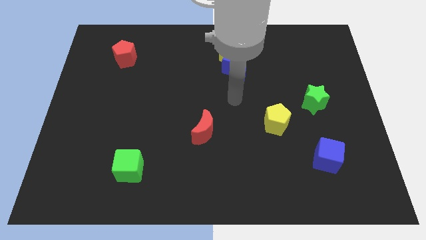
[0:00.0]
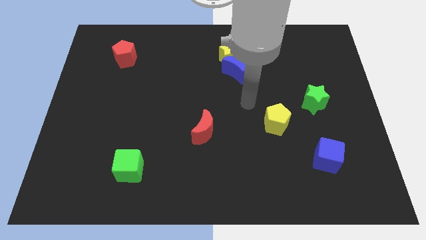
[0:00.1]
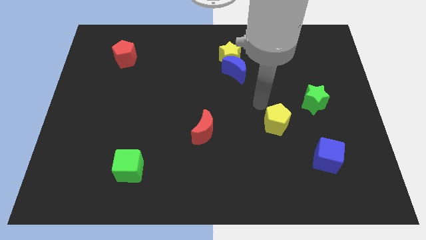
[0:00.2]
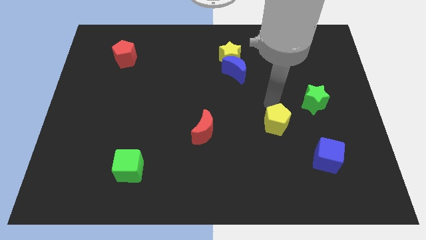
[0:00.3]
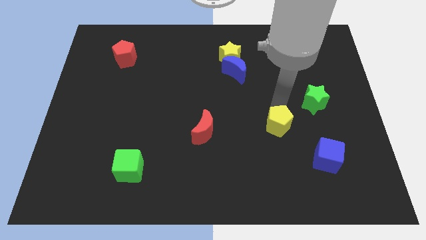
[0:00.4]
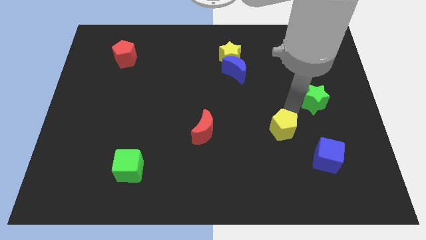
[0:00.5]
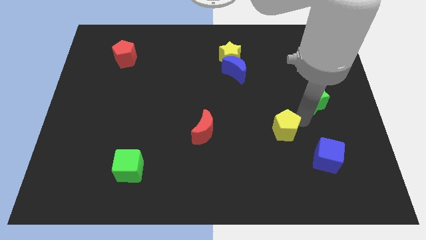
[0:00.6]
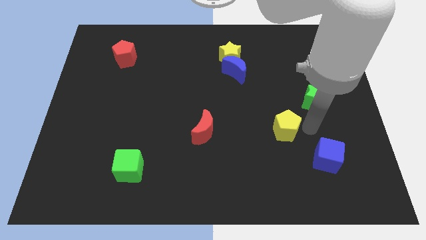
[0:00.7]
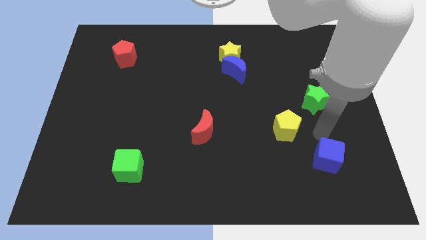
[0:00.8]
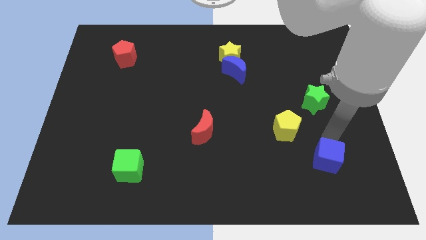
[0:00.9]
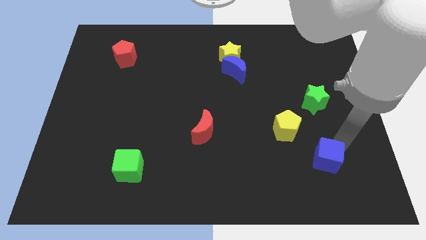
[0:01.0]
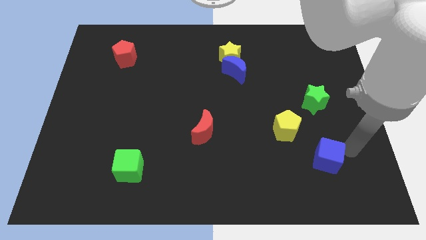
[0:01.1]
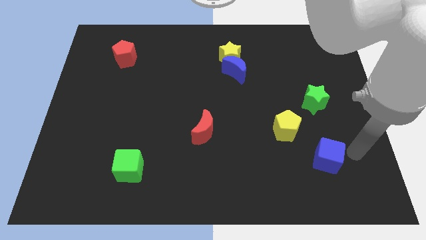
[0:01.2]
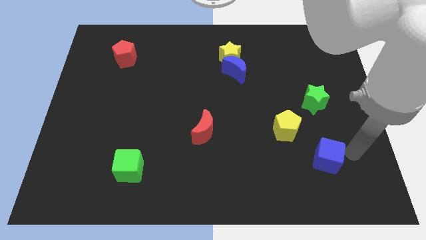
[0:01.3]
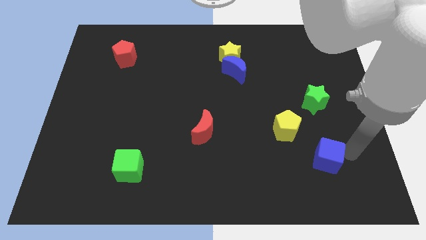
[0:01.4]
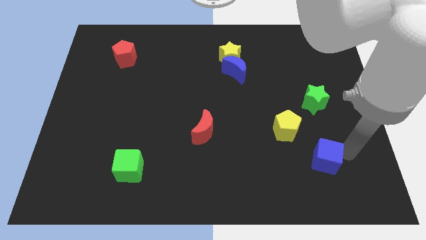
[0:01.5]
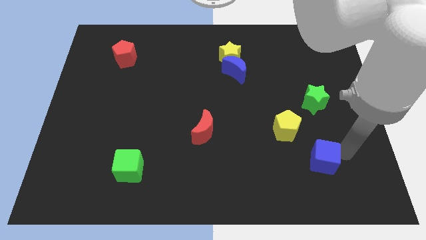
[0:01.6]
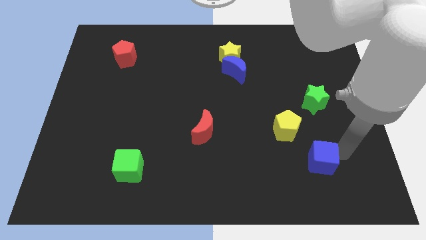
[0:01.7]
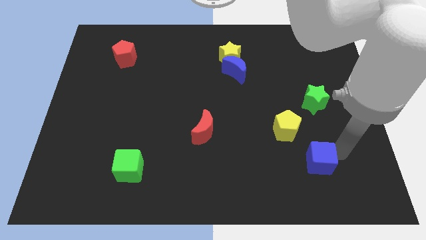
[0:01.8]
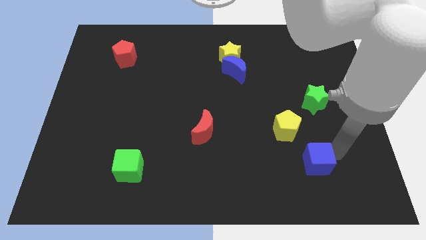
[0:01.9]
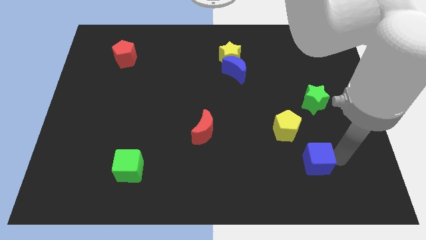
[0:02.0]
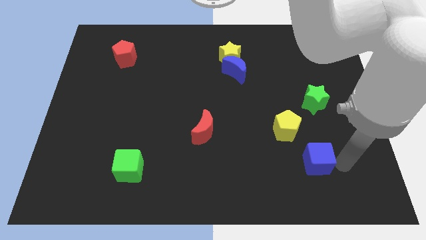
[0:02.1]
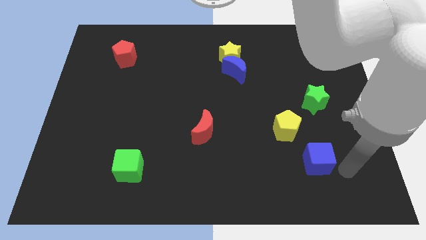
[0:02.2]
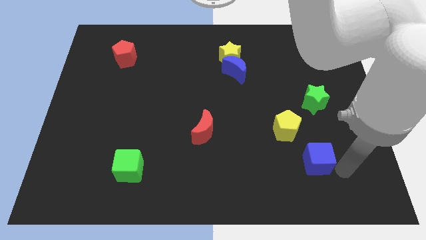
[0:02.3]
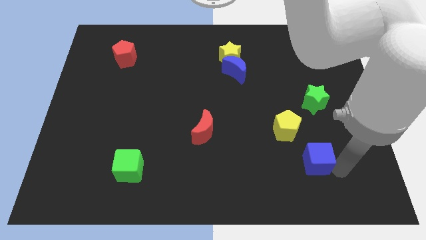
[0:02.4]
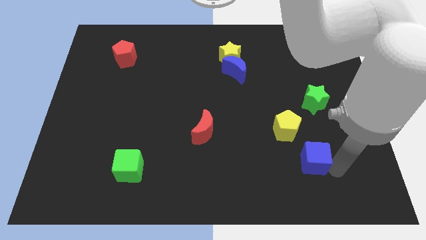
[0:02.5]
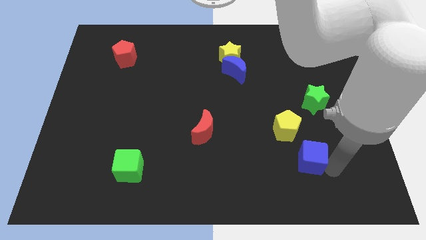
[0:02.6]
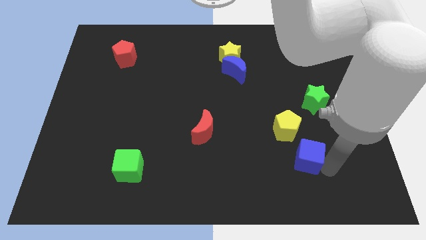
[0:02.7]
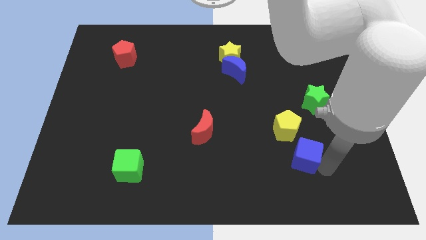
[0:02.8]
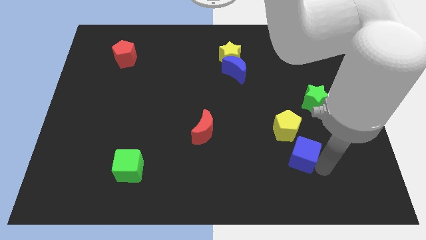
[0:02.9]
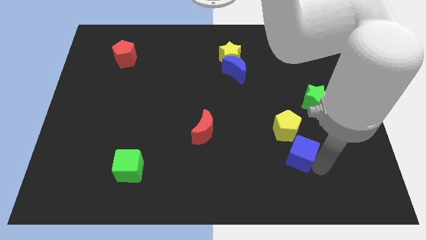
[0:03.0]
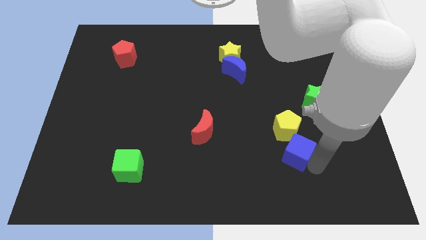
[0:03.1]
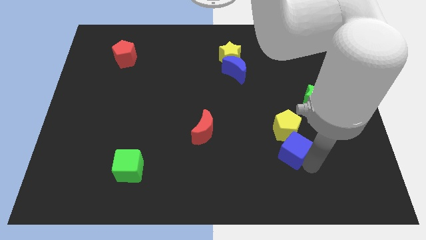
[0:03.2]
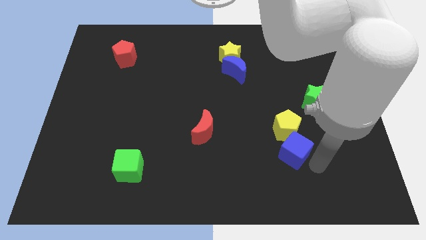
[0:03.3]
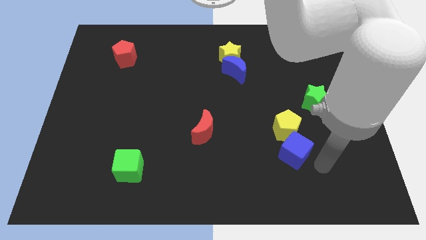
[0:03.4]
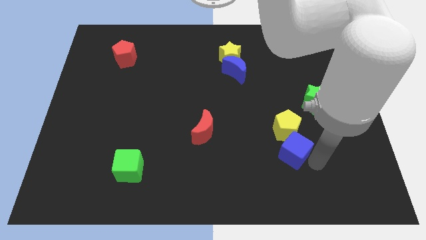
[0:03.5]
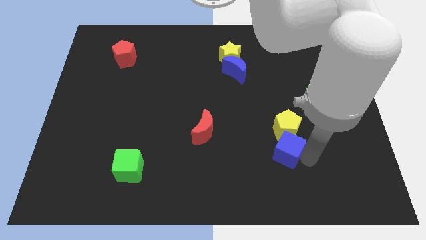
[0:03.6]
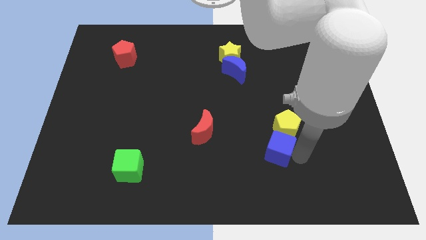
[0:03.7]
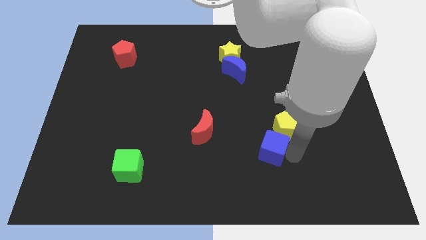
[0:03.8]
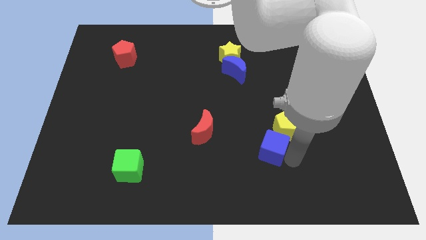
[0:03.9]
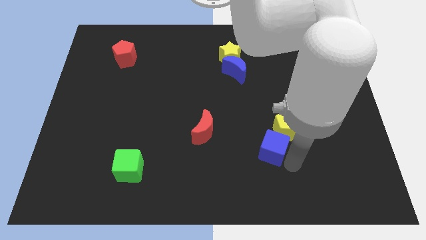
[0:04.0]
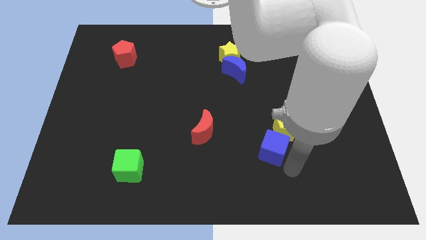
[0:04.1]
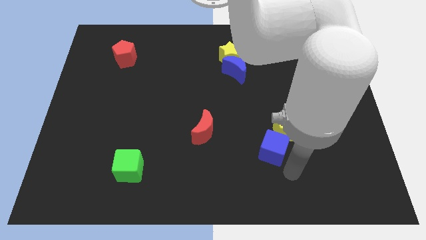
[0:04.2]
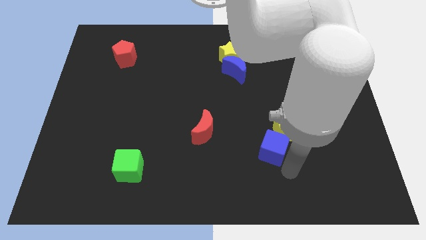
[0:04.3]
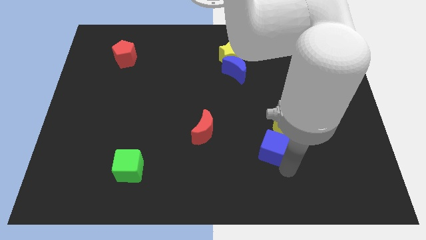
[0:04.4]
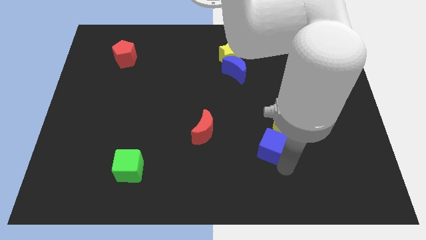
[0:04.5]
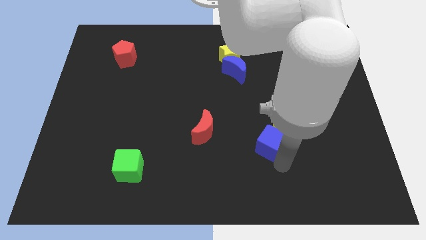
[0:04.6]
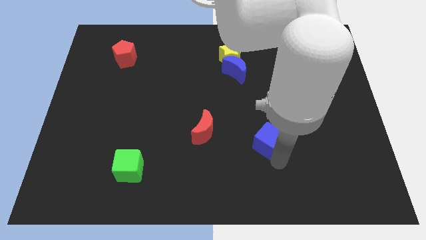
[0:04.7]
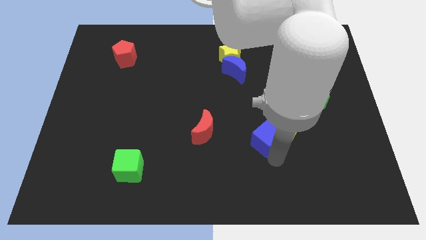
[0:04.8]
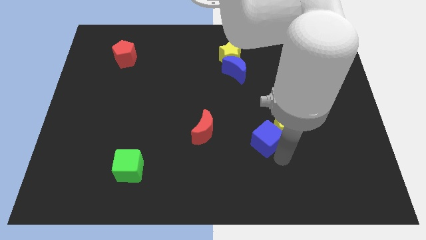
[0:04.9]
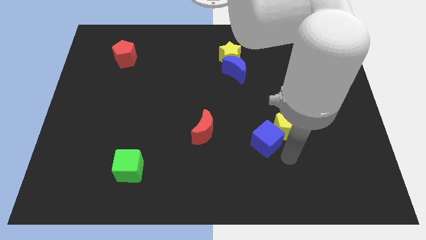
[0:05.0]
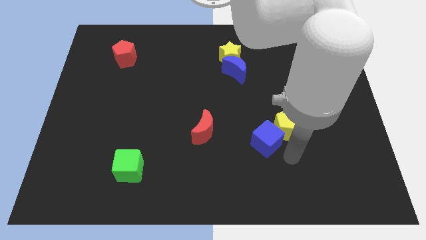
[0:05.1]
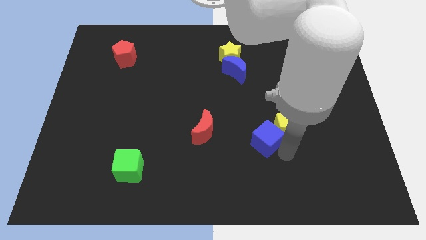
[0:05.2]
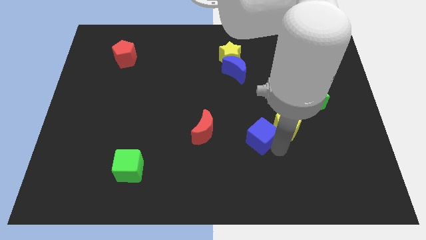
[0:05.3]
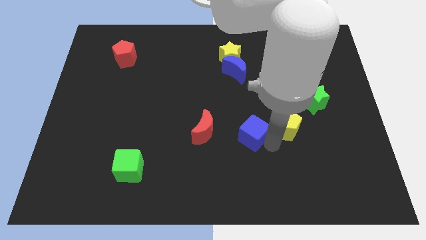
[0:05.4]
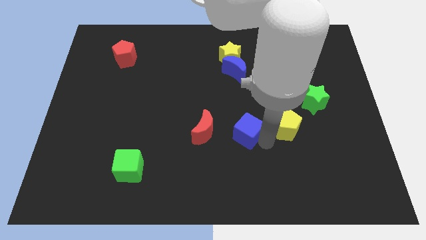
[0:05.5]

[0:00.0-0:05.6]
slide the blue cube to the middle

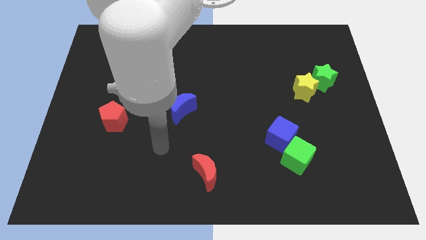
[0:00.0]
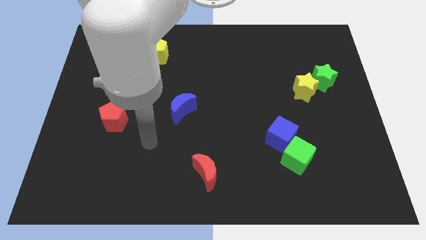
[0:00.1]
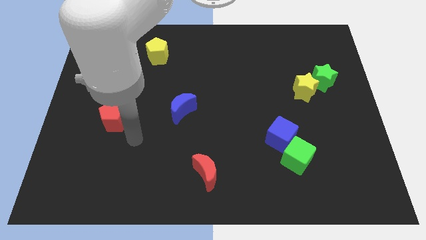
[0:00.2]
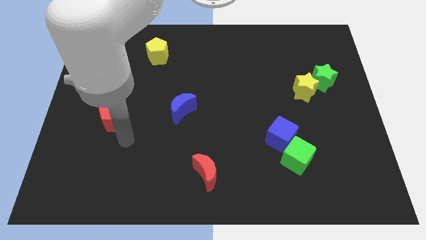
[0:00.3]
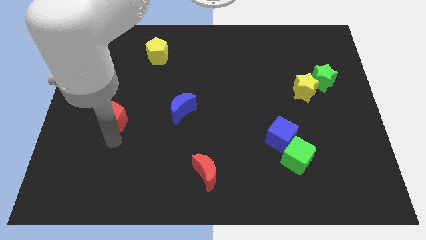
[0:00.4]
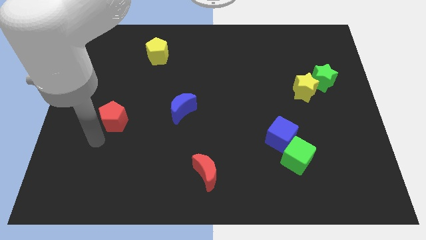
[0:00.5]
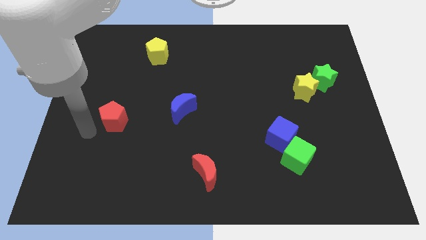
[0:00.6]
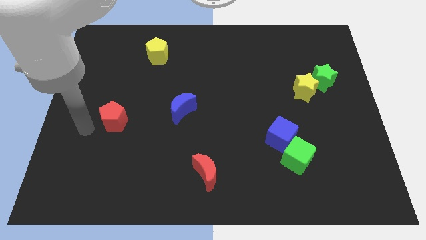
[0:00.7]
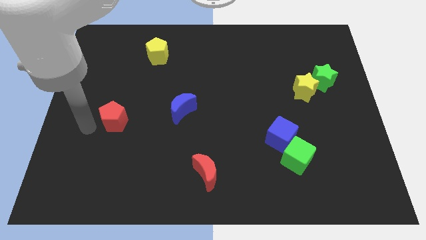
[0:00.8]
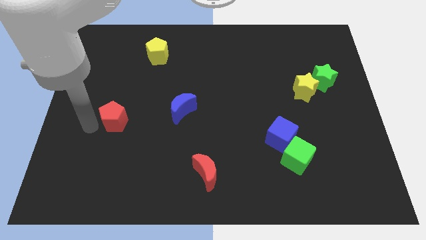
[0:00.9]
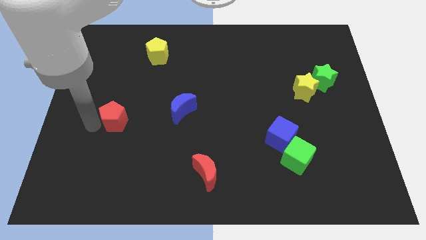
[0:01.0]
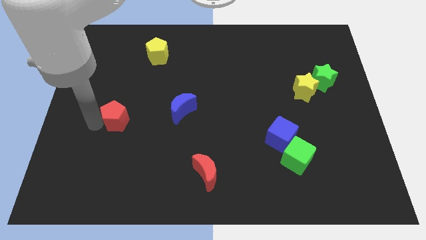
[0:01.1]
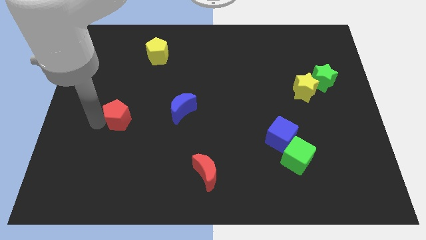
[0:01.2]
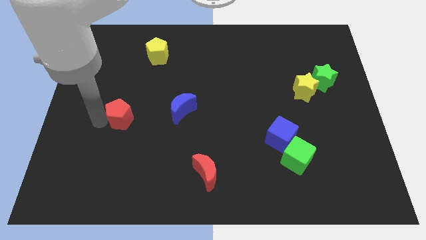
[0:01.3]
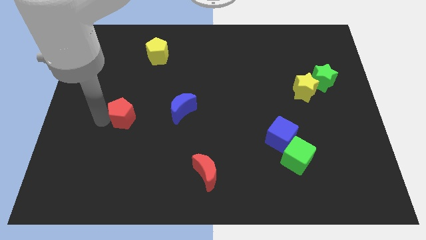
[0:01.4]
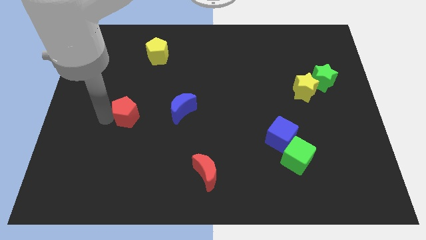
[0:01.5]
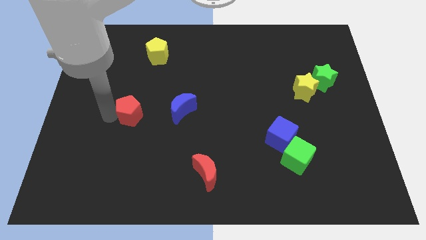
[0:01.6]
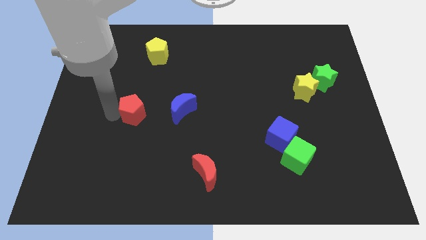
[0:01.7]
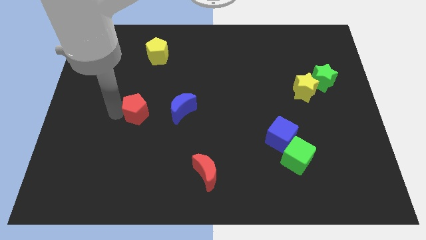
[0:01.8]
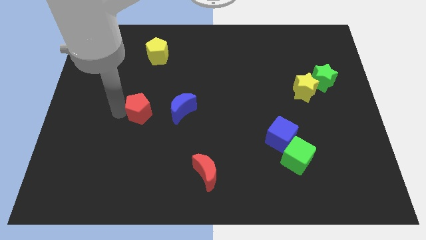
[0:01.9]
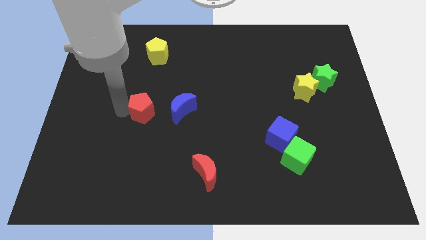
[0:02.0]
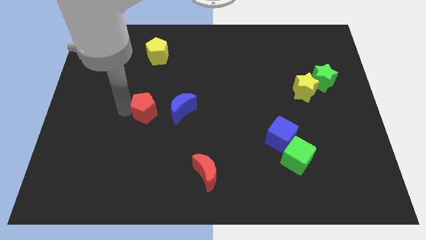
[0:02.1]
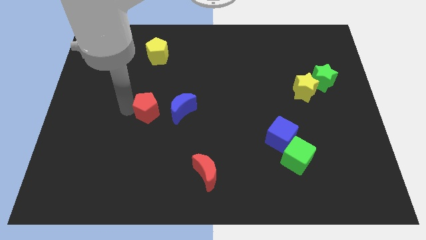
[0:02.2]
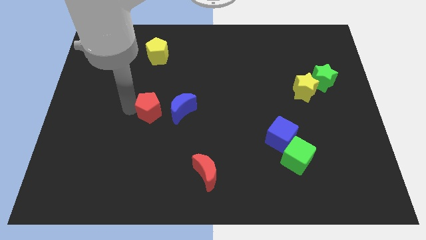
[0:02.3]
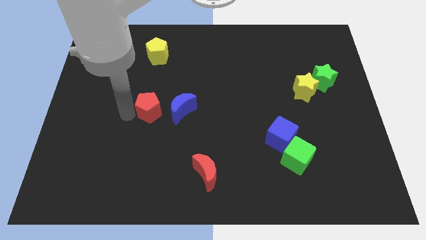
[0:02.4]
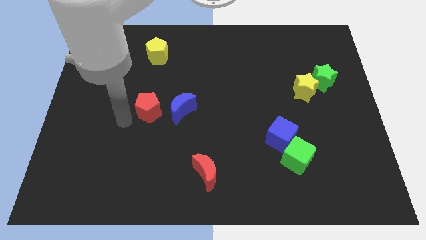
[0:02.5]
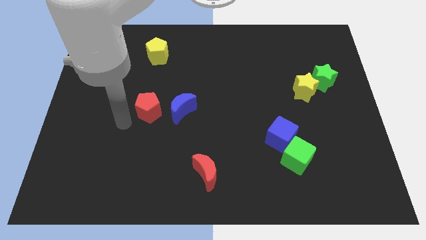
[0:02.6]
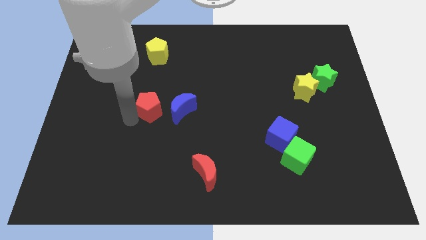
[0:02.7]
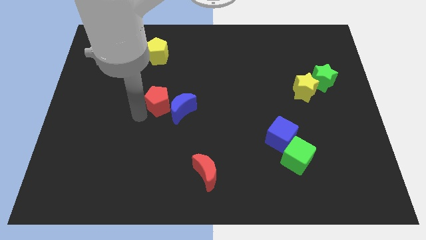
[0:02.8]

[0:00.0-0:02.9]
move the red pentagon to the center
